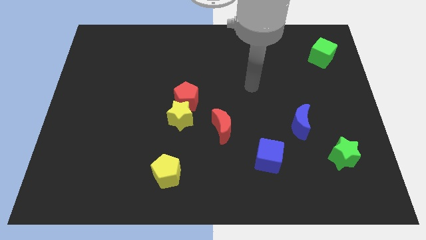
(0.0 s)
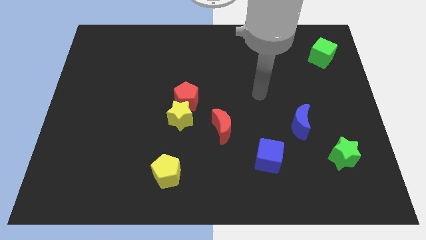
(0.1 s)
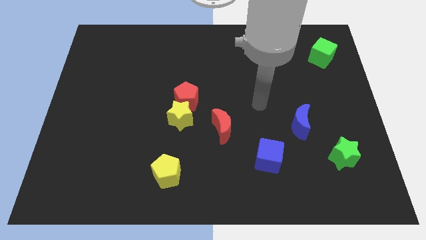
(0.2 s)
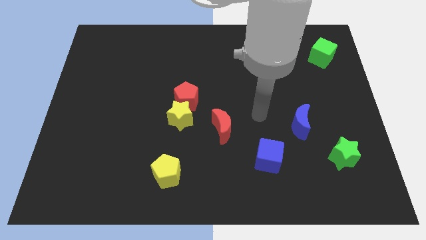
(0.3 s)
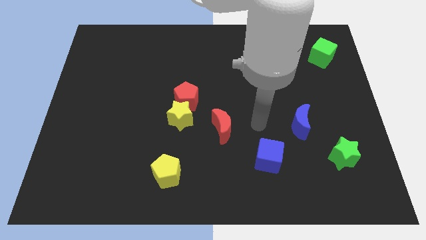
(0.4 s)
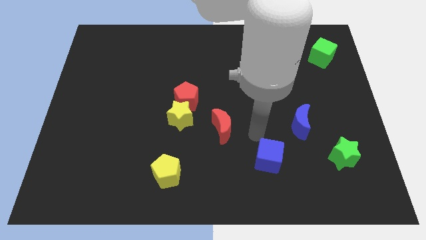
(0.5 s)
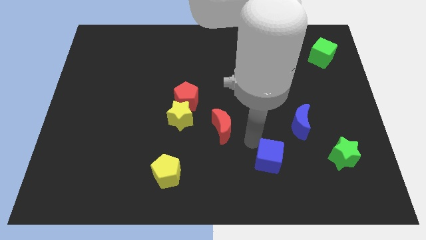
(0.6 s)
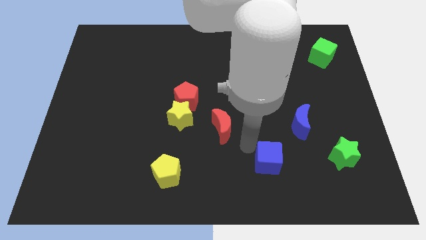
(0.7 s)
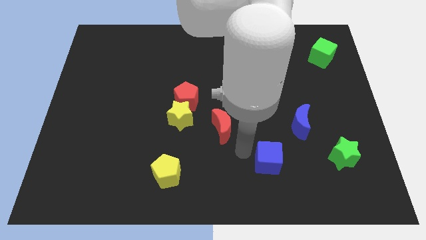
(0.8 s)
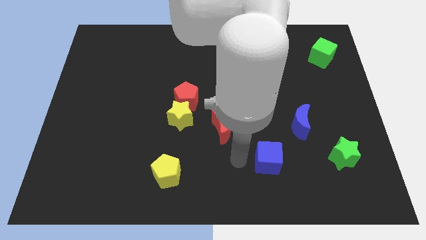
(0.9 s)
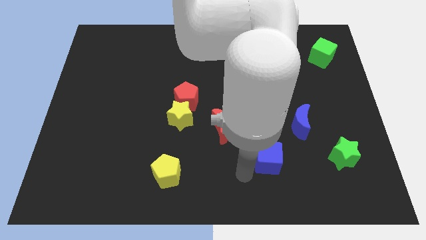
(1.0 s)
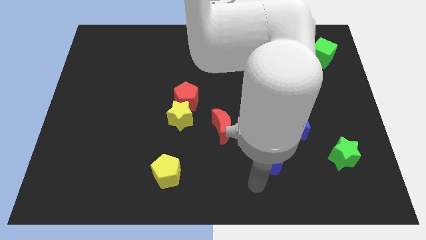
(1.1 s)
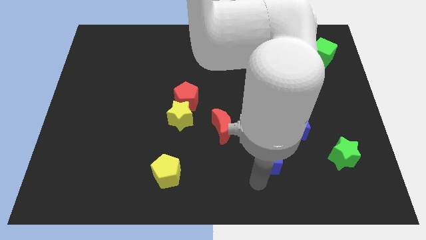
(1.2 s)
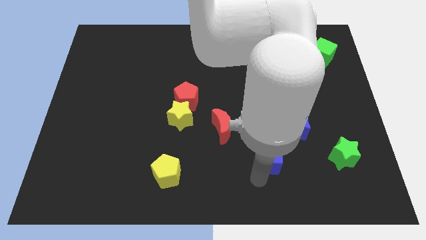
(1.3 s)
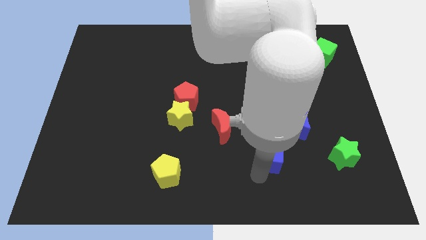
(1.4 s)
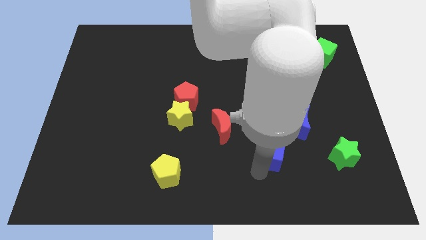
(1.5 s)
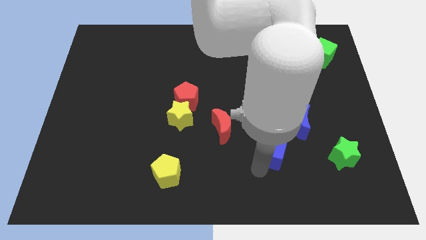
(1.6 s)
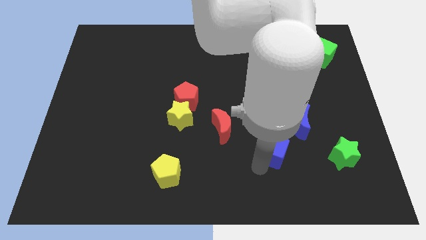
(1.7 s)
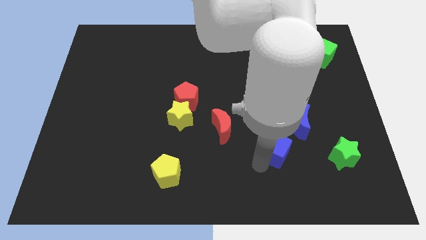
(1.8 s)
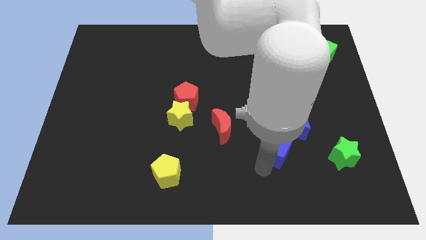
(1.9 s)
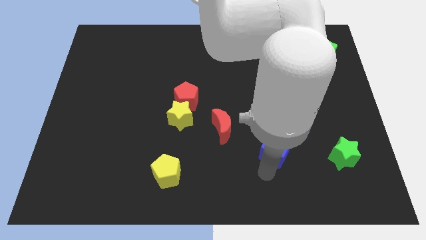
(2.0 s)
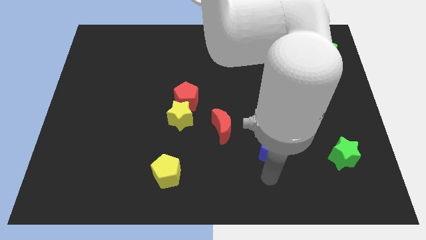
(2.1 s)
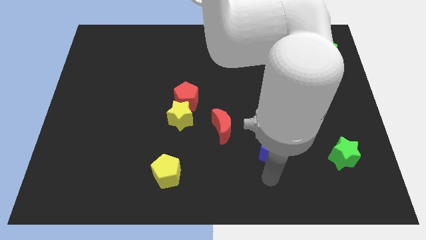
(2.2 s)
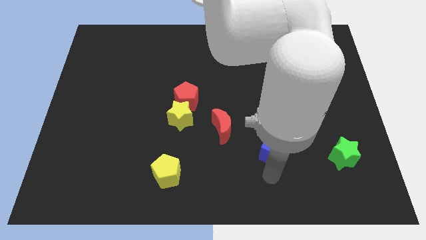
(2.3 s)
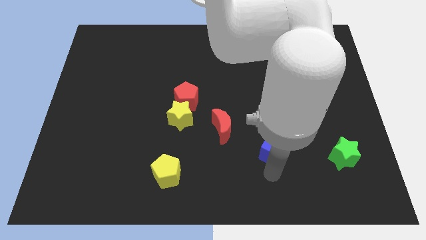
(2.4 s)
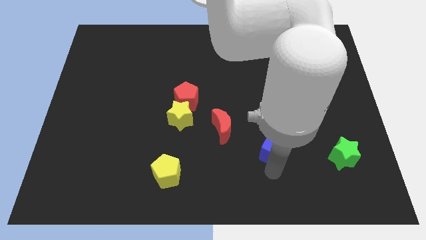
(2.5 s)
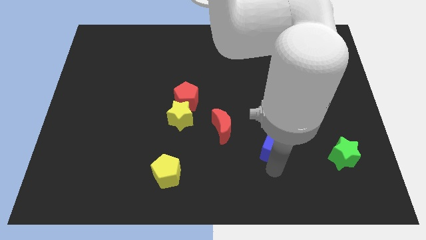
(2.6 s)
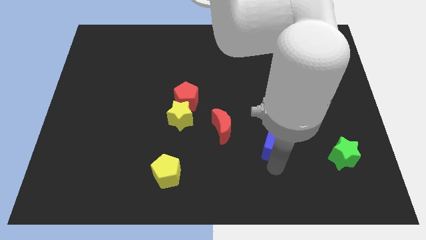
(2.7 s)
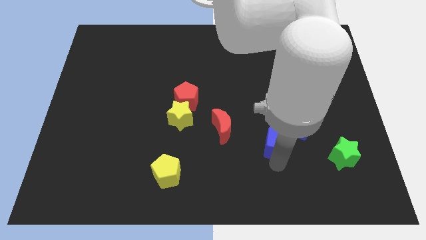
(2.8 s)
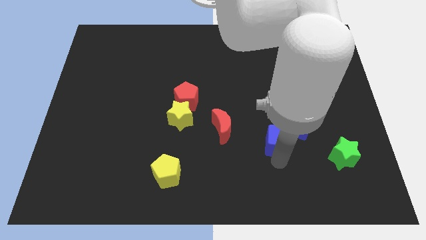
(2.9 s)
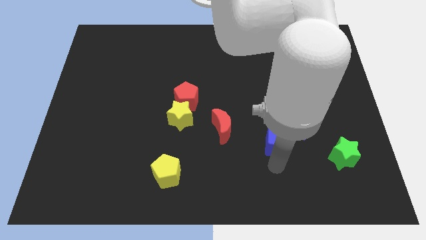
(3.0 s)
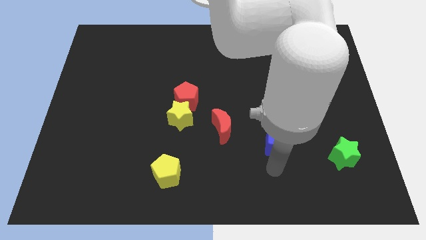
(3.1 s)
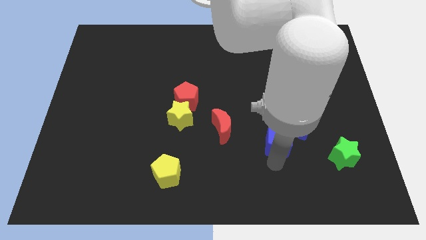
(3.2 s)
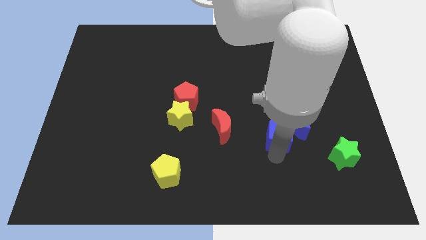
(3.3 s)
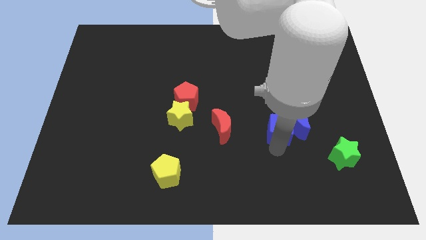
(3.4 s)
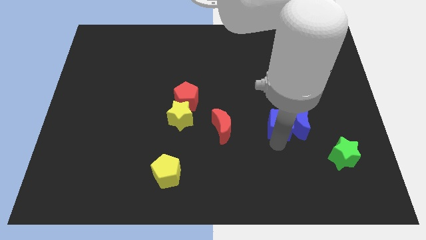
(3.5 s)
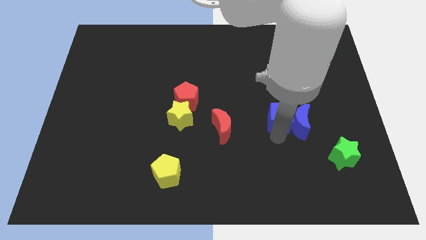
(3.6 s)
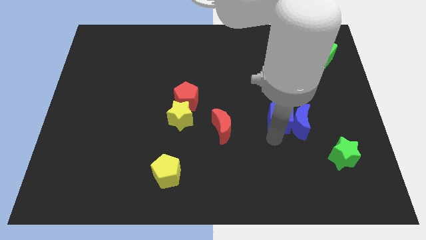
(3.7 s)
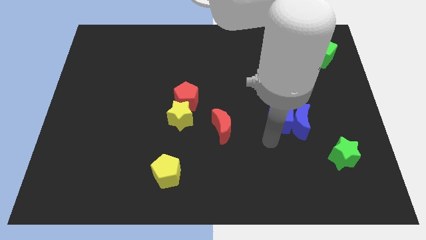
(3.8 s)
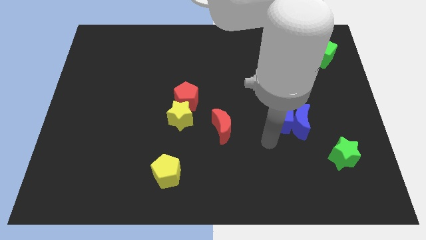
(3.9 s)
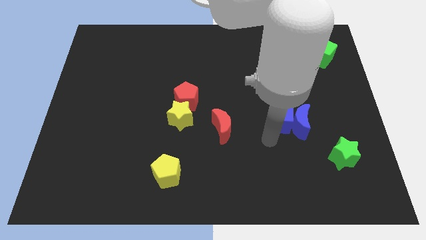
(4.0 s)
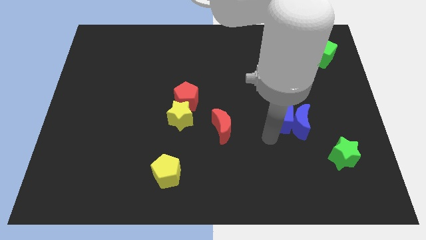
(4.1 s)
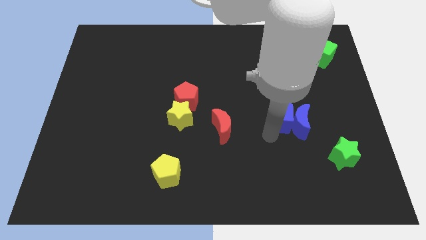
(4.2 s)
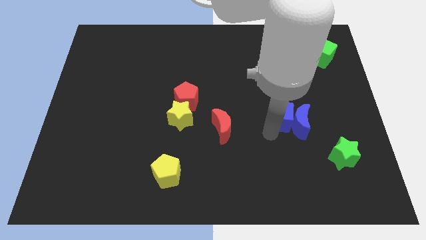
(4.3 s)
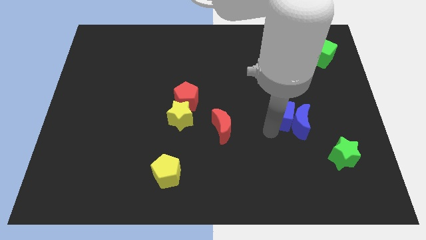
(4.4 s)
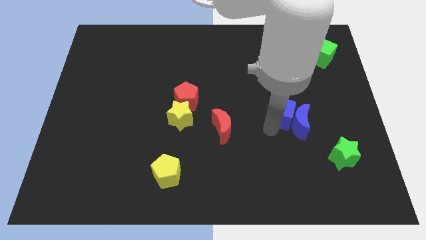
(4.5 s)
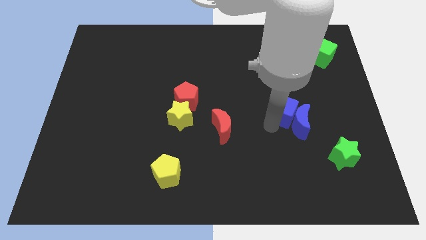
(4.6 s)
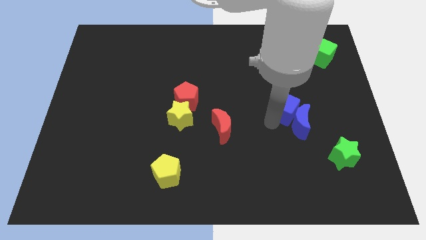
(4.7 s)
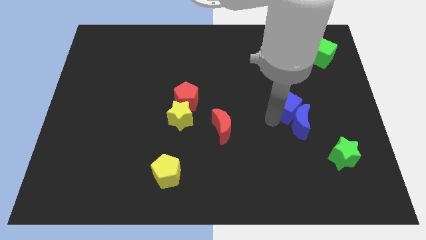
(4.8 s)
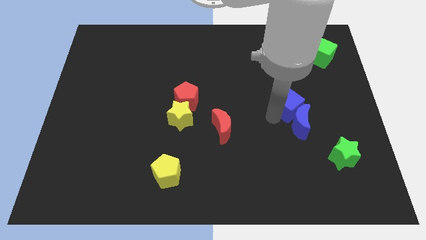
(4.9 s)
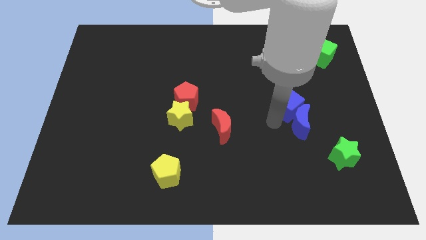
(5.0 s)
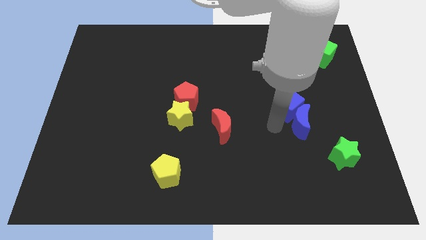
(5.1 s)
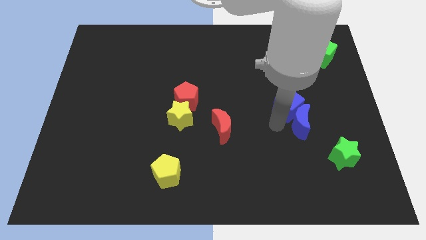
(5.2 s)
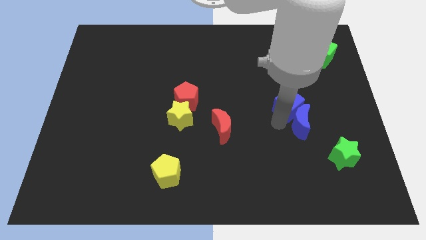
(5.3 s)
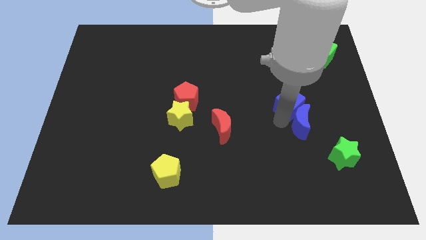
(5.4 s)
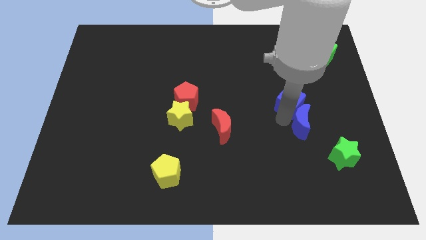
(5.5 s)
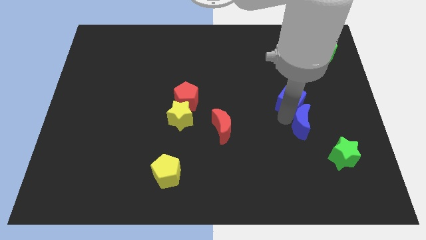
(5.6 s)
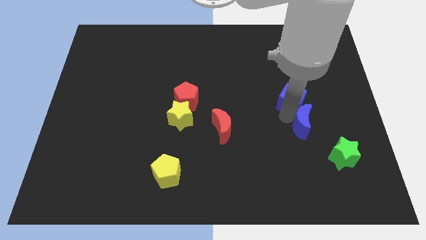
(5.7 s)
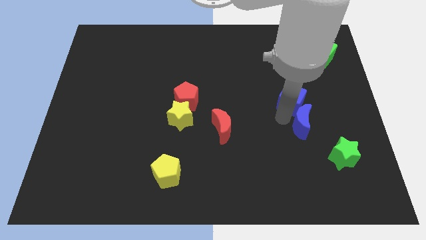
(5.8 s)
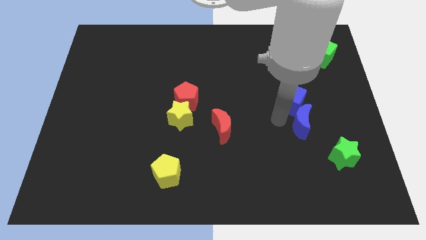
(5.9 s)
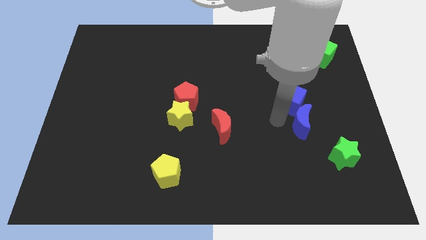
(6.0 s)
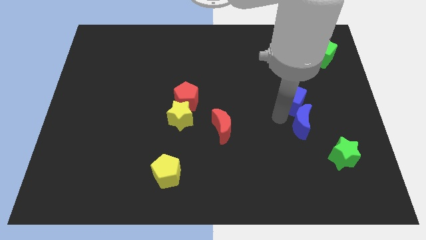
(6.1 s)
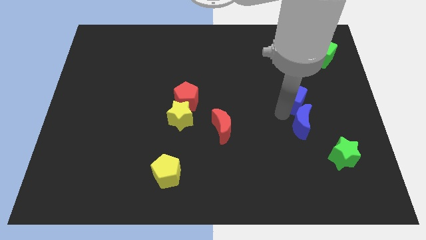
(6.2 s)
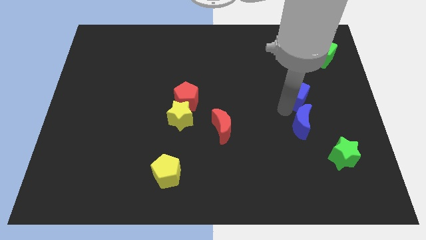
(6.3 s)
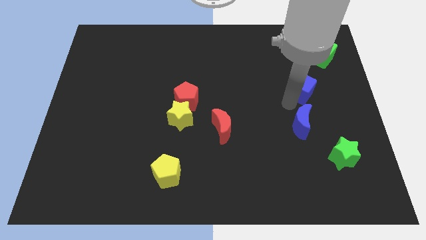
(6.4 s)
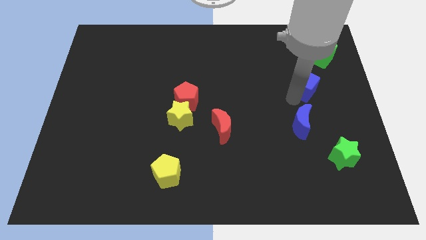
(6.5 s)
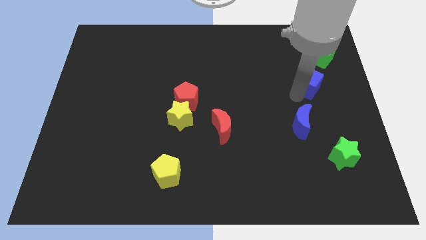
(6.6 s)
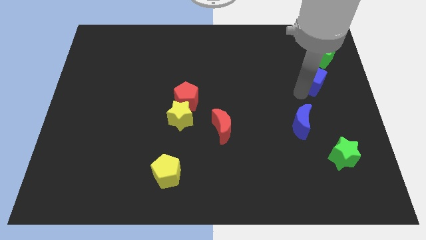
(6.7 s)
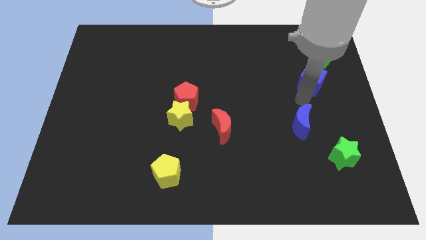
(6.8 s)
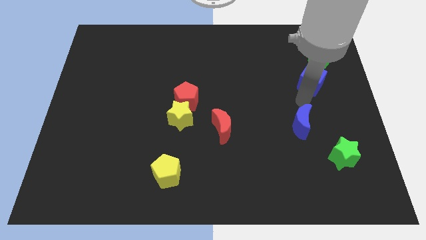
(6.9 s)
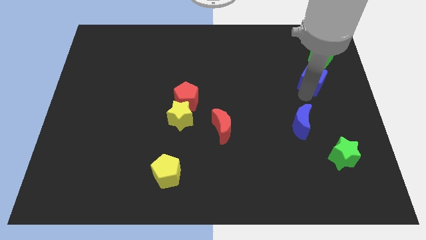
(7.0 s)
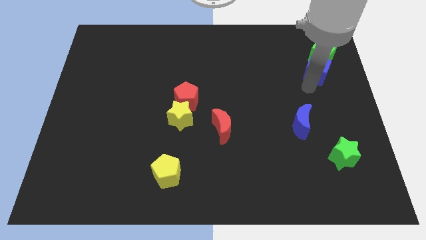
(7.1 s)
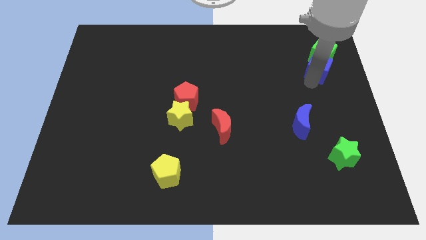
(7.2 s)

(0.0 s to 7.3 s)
slide the blue cube next to the green cube

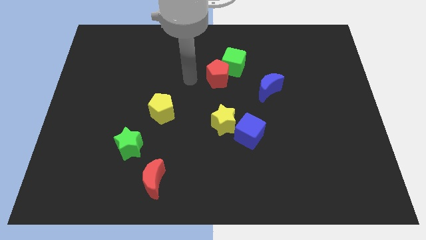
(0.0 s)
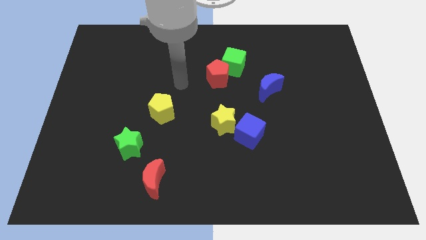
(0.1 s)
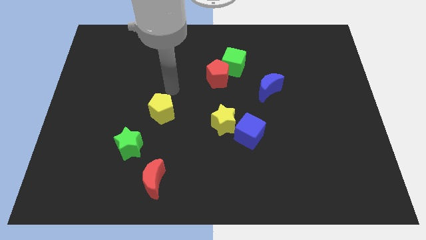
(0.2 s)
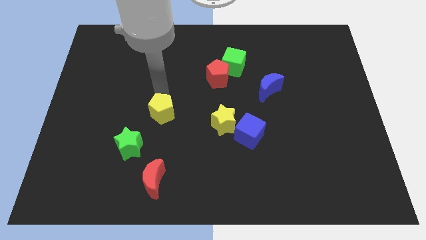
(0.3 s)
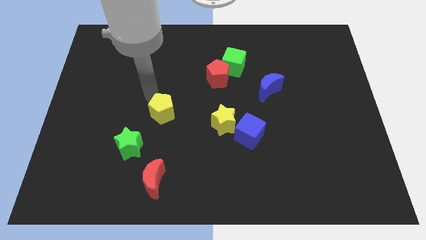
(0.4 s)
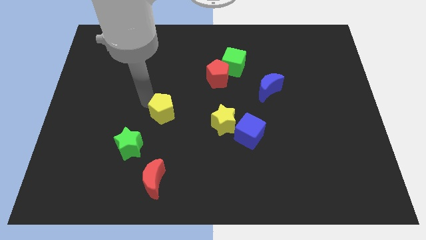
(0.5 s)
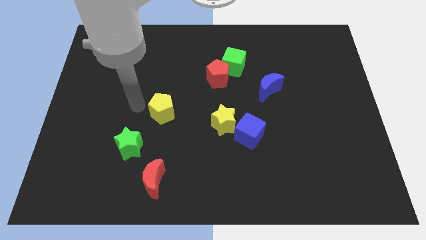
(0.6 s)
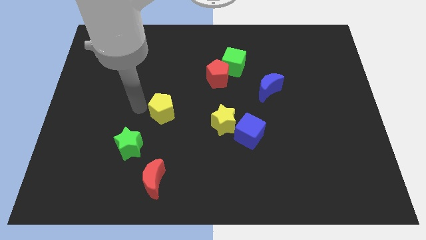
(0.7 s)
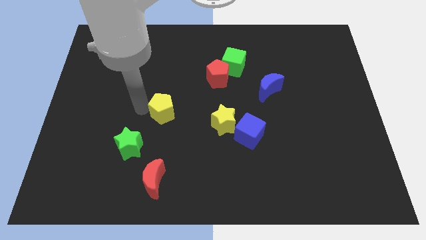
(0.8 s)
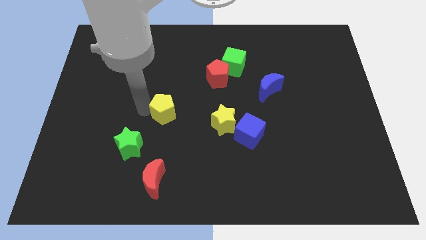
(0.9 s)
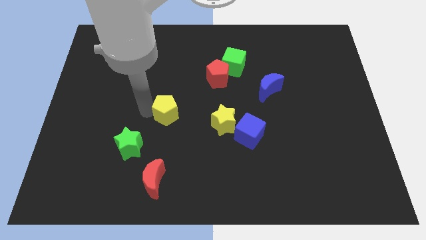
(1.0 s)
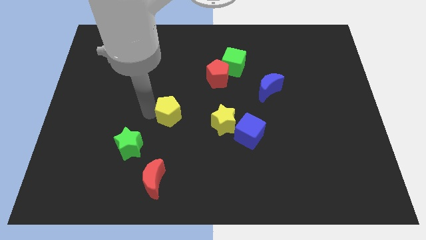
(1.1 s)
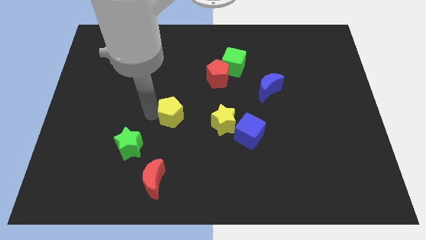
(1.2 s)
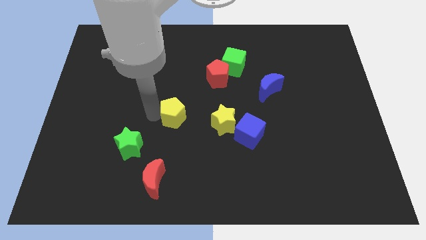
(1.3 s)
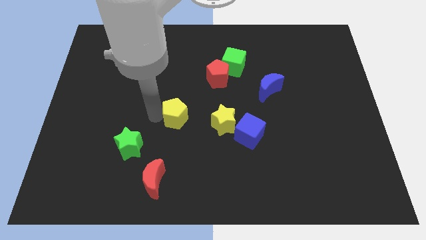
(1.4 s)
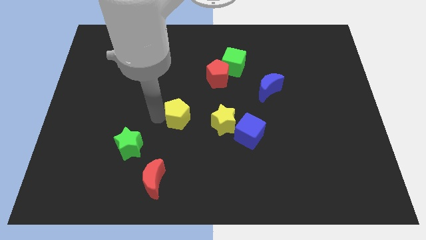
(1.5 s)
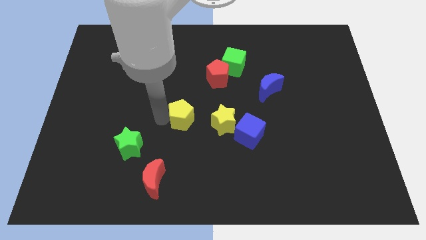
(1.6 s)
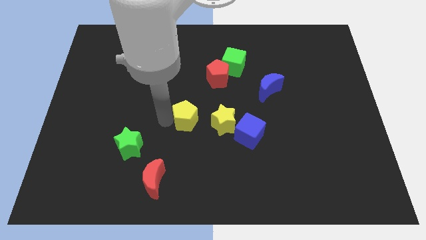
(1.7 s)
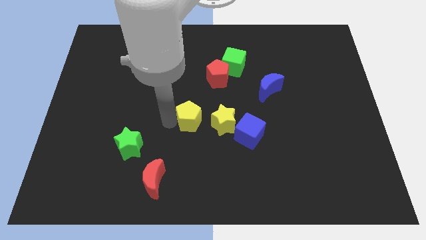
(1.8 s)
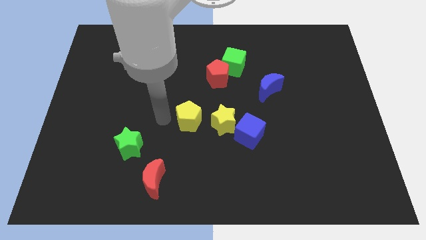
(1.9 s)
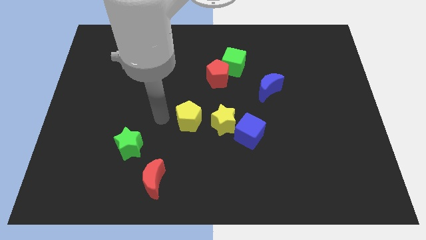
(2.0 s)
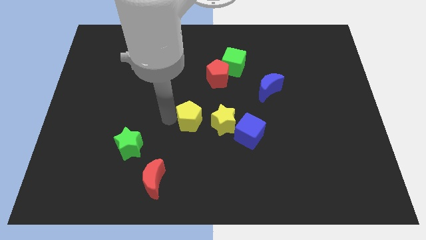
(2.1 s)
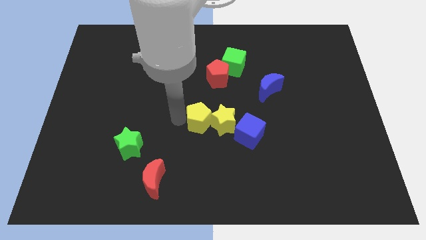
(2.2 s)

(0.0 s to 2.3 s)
put the yellow pentagon towards the yellow star
